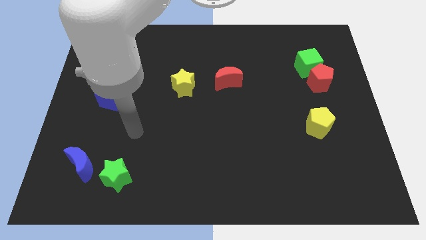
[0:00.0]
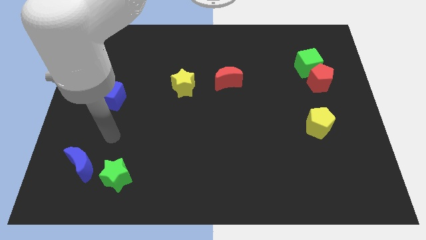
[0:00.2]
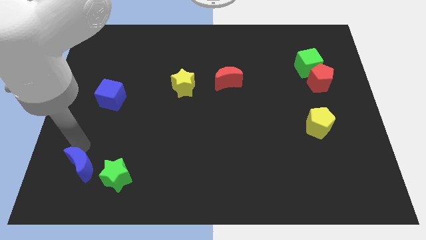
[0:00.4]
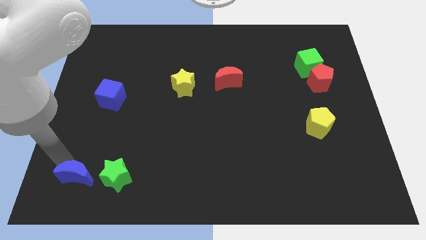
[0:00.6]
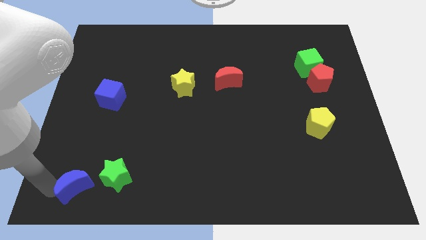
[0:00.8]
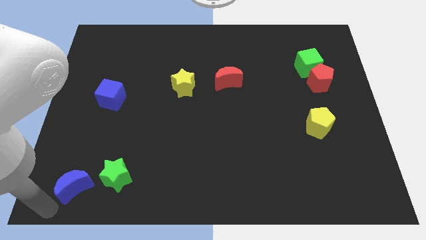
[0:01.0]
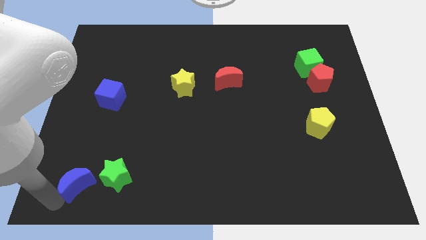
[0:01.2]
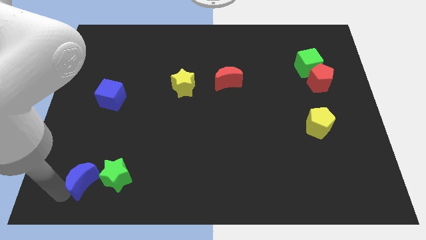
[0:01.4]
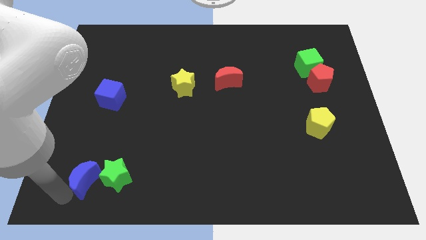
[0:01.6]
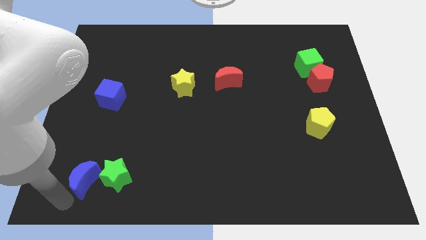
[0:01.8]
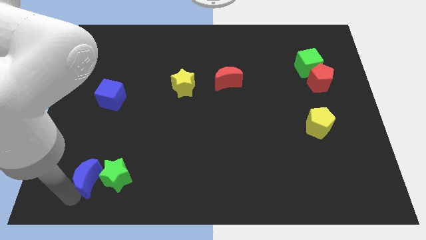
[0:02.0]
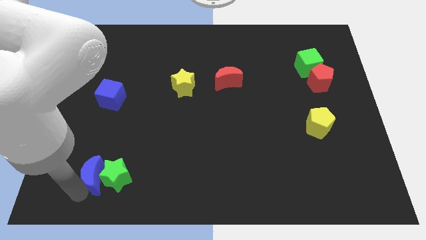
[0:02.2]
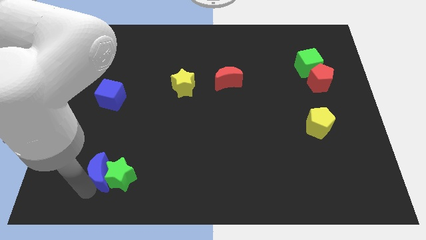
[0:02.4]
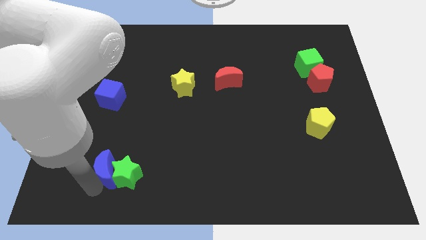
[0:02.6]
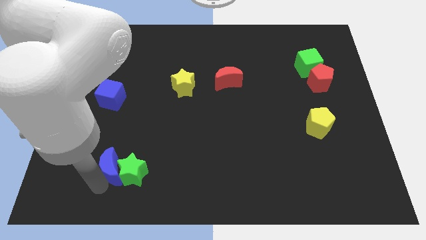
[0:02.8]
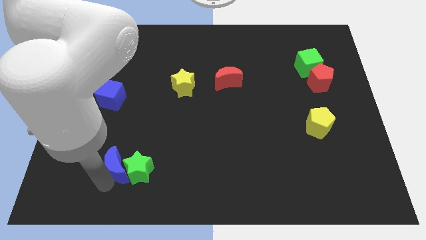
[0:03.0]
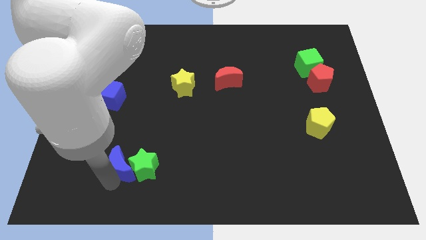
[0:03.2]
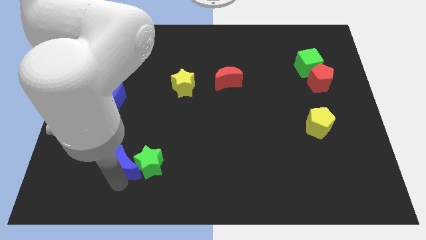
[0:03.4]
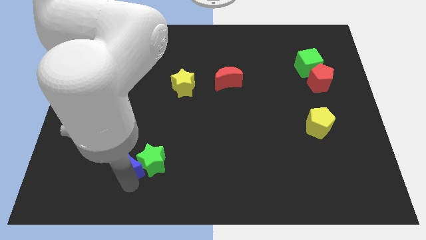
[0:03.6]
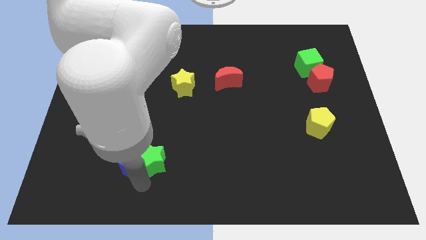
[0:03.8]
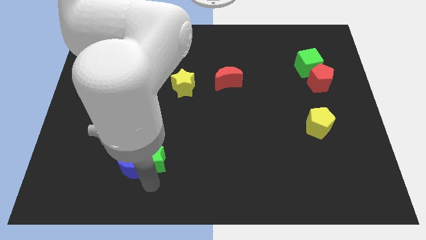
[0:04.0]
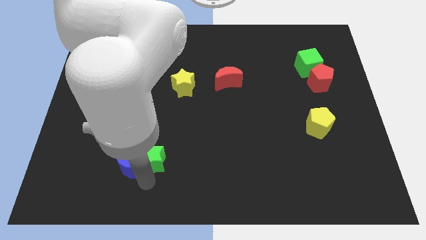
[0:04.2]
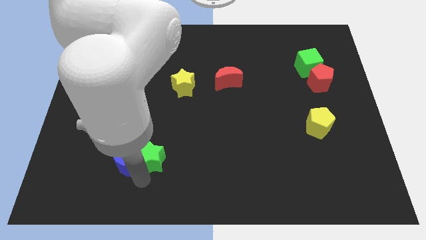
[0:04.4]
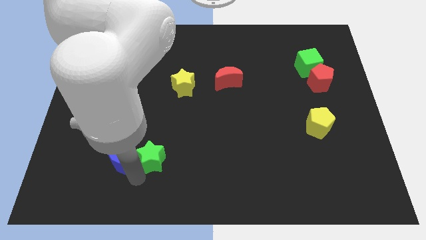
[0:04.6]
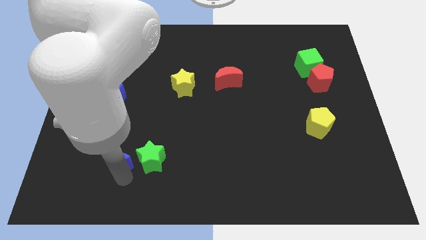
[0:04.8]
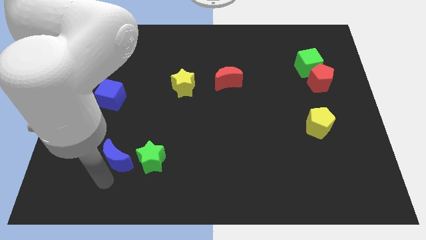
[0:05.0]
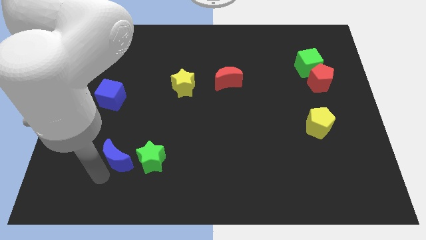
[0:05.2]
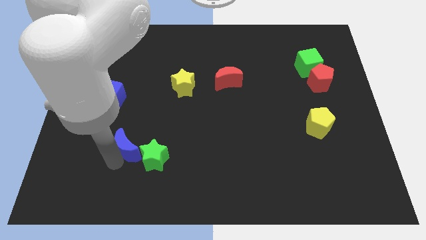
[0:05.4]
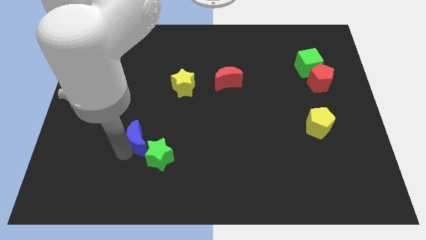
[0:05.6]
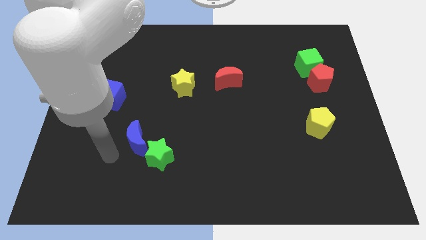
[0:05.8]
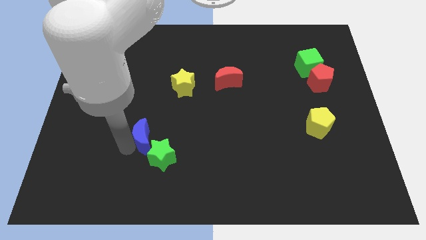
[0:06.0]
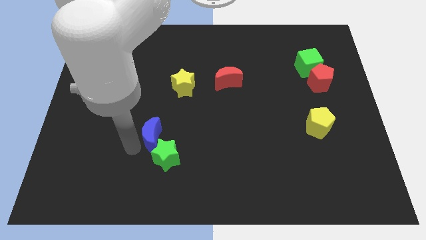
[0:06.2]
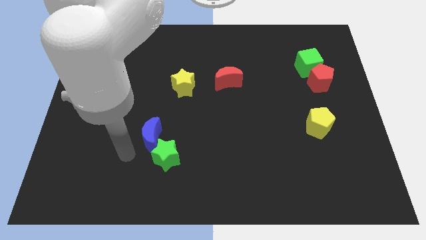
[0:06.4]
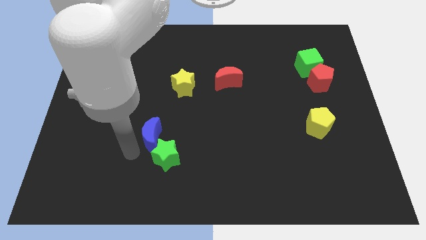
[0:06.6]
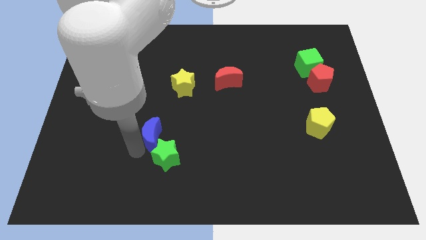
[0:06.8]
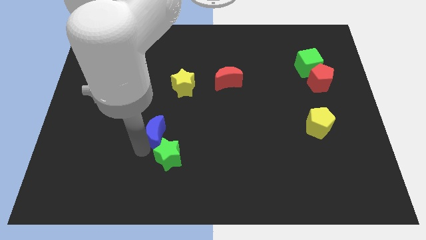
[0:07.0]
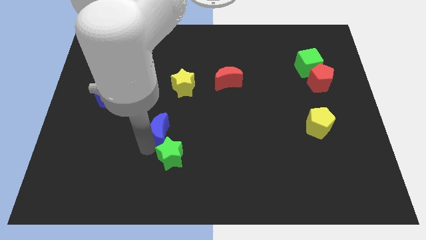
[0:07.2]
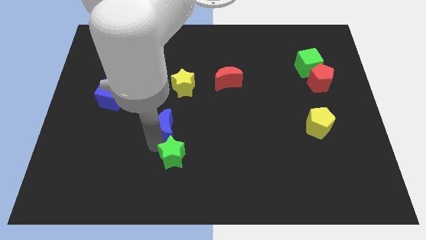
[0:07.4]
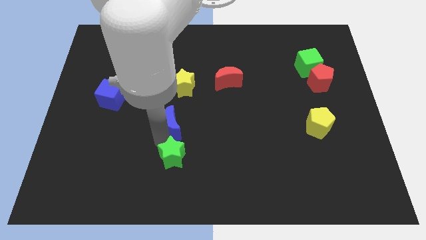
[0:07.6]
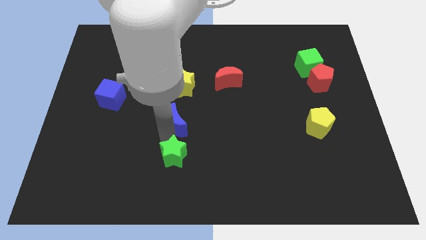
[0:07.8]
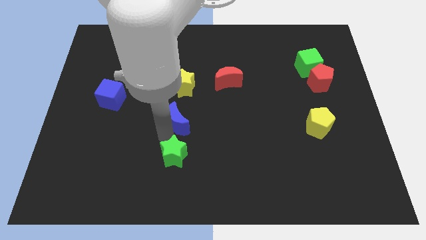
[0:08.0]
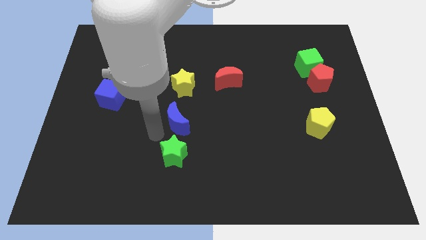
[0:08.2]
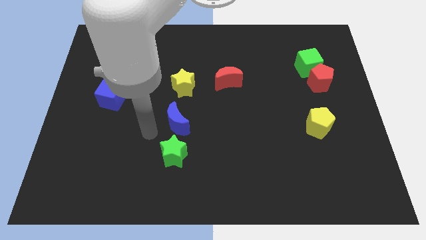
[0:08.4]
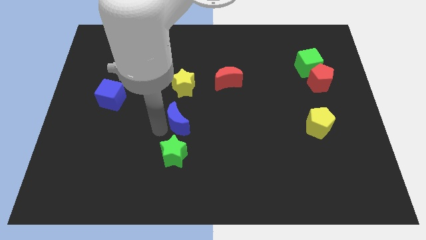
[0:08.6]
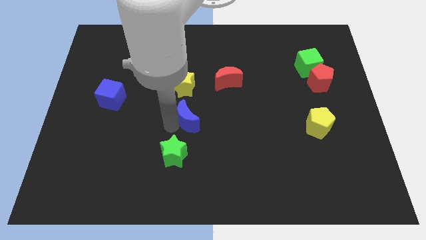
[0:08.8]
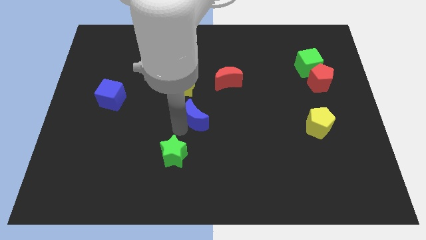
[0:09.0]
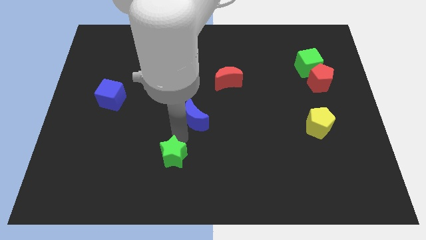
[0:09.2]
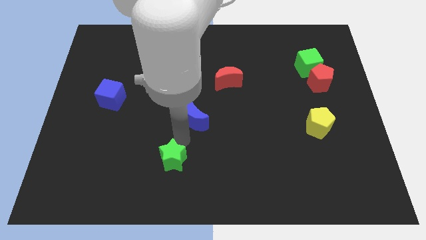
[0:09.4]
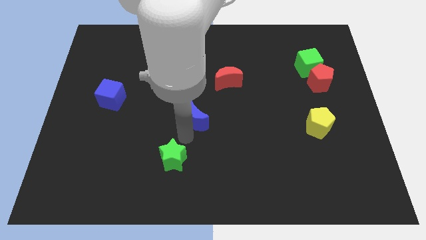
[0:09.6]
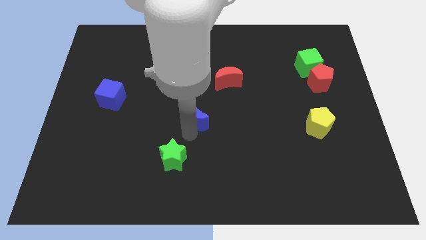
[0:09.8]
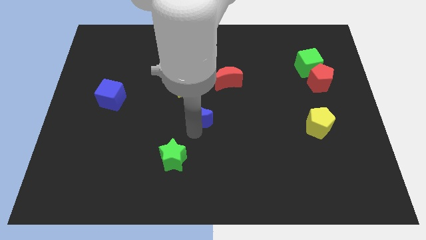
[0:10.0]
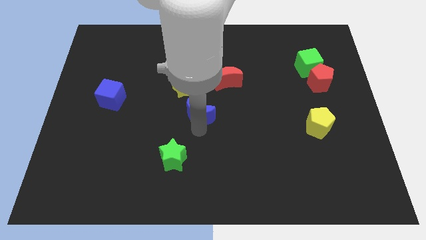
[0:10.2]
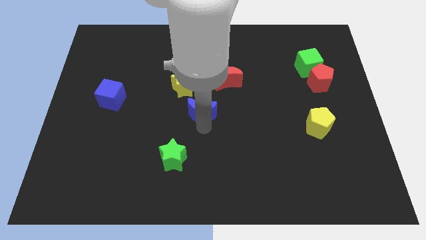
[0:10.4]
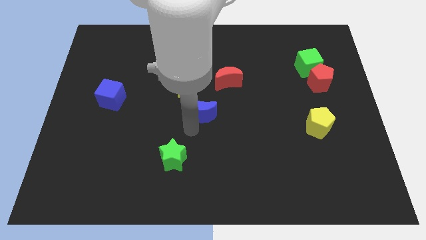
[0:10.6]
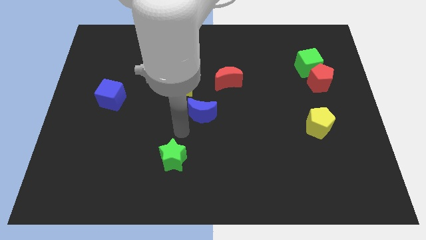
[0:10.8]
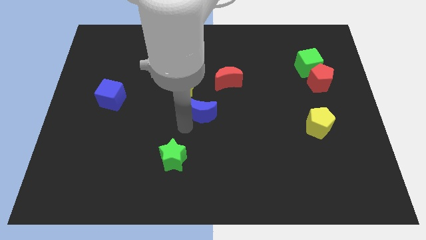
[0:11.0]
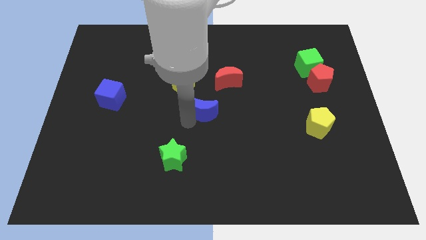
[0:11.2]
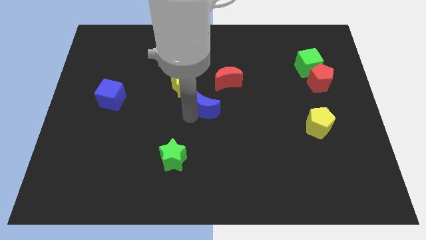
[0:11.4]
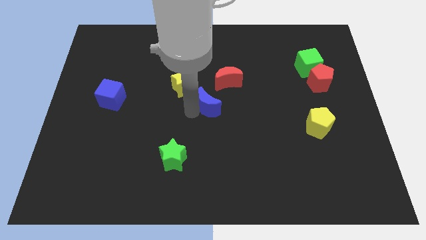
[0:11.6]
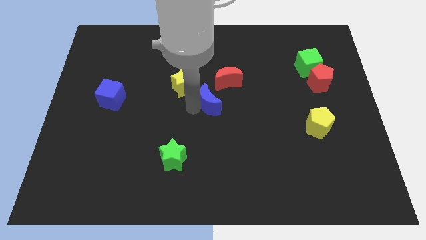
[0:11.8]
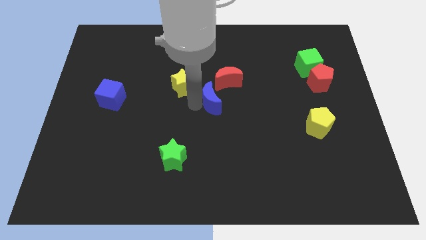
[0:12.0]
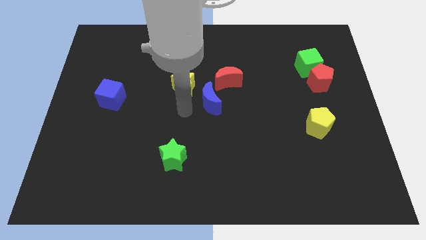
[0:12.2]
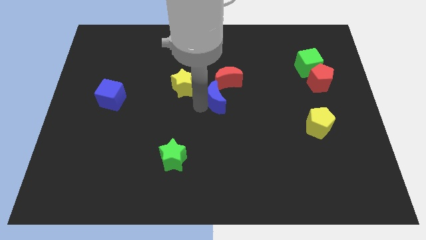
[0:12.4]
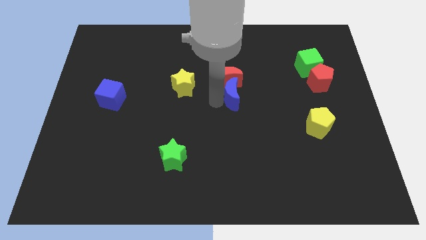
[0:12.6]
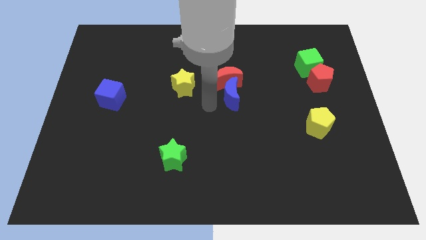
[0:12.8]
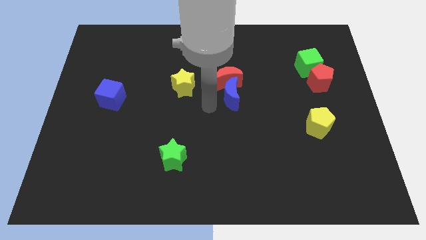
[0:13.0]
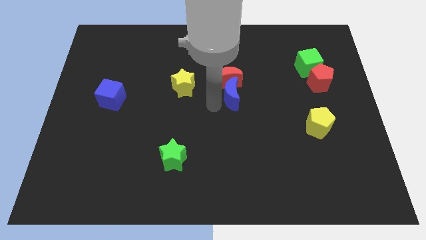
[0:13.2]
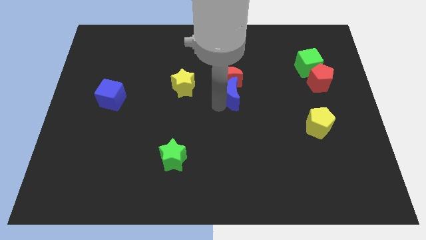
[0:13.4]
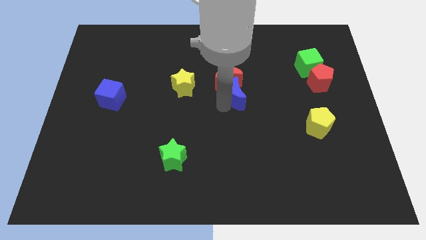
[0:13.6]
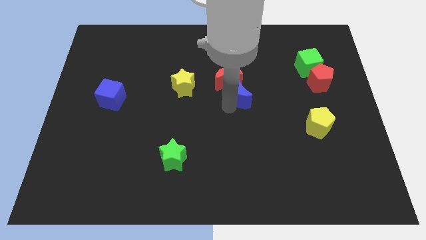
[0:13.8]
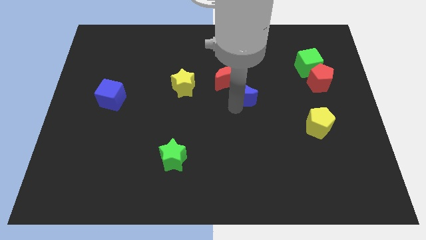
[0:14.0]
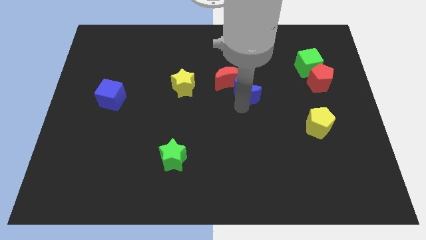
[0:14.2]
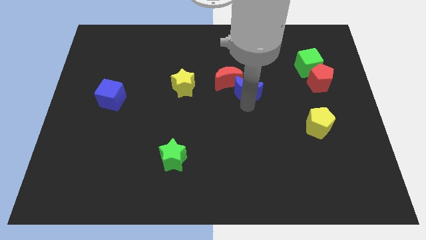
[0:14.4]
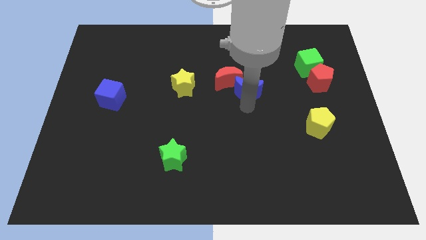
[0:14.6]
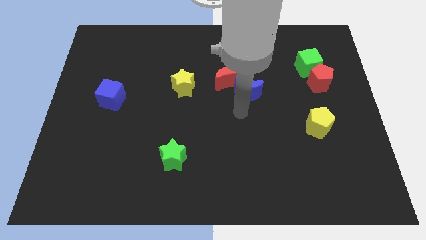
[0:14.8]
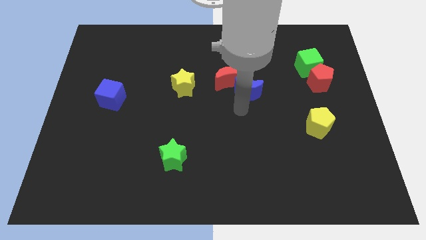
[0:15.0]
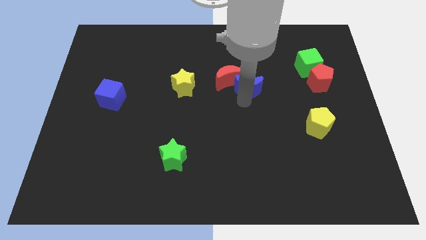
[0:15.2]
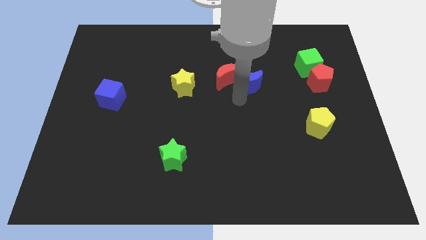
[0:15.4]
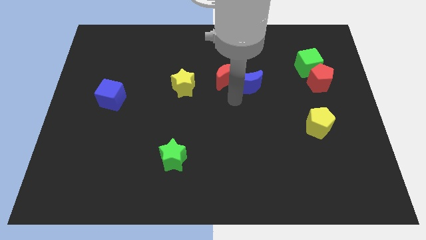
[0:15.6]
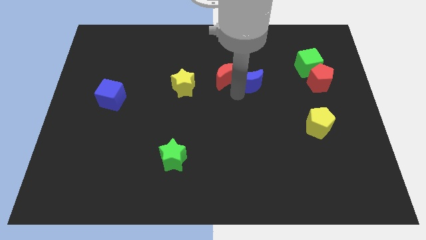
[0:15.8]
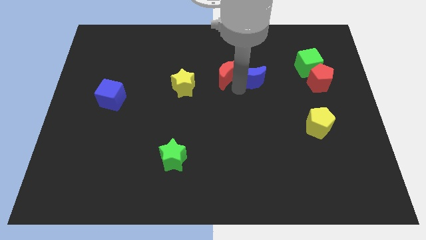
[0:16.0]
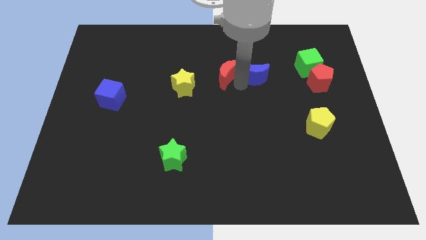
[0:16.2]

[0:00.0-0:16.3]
push the blue moon just left of the green cube
